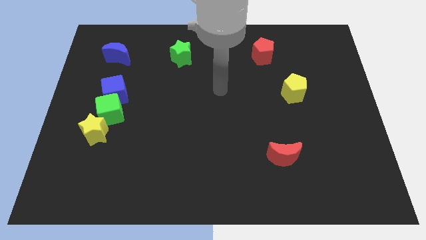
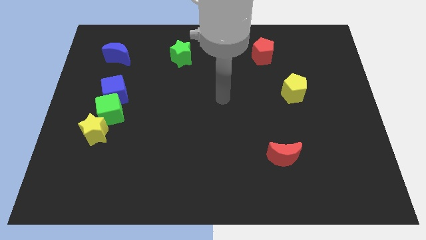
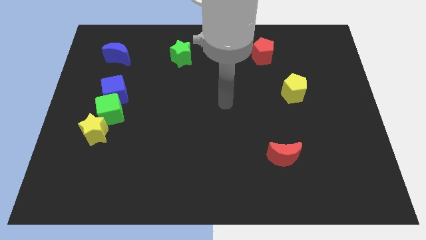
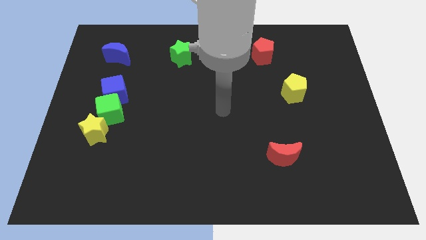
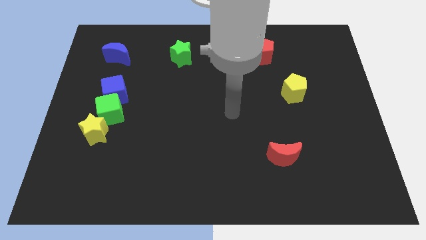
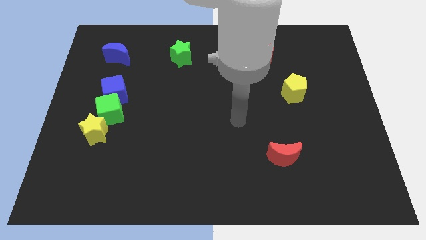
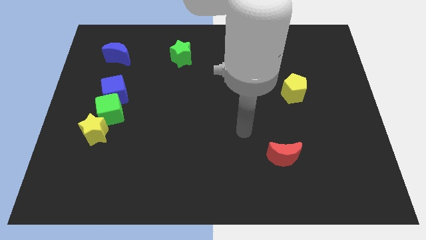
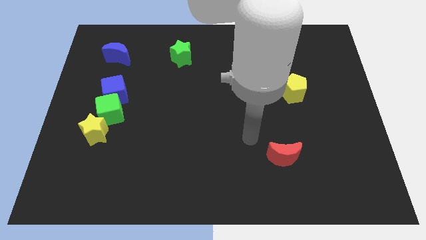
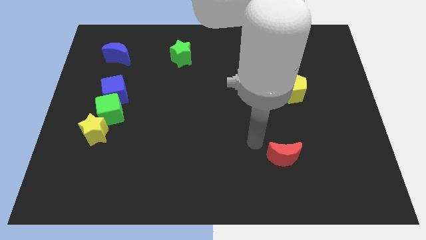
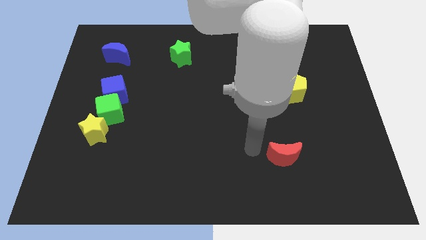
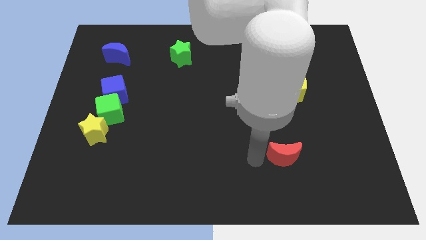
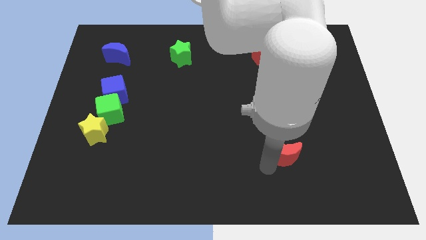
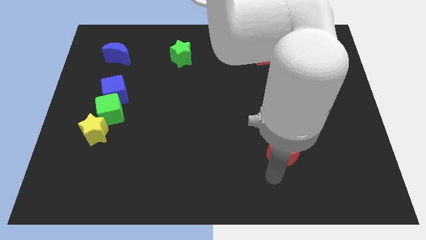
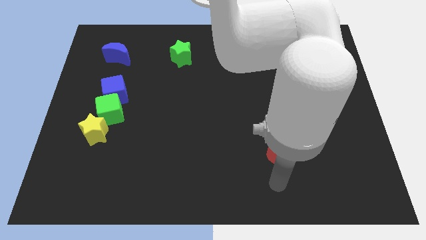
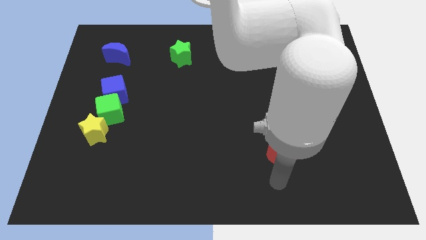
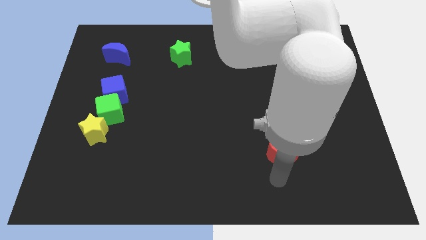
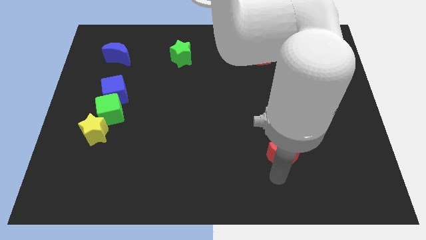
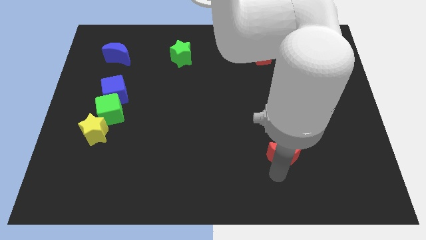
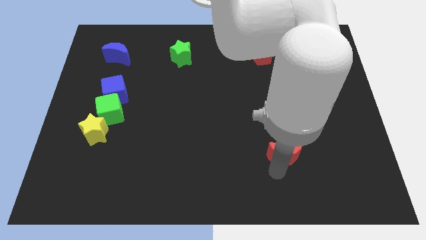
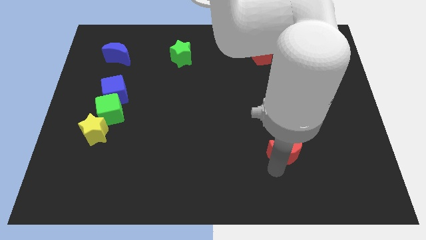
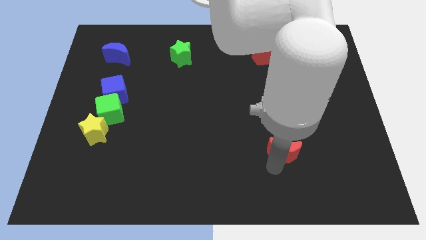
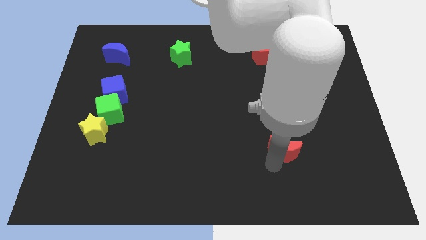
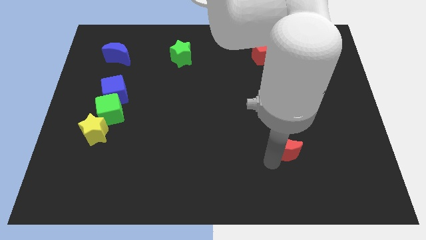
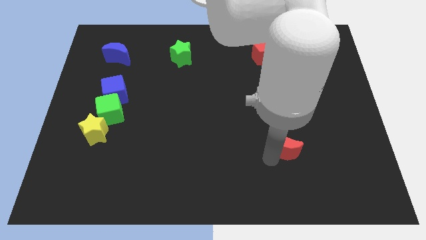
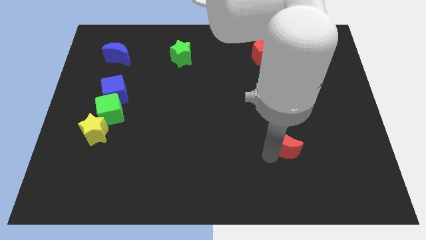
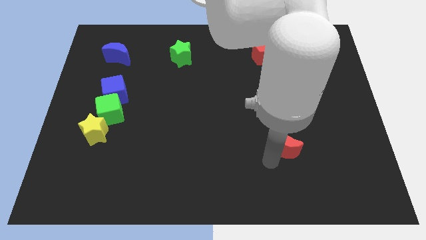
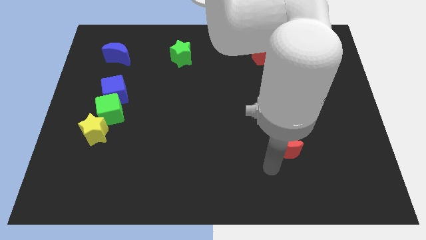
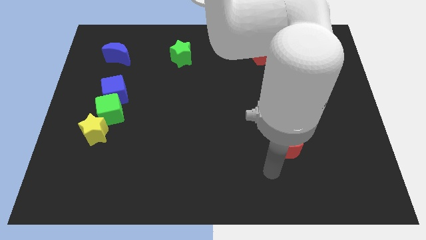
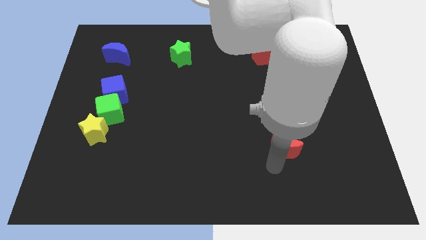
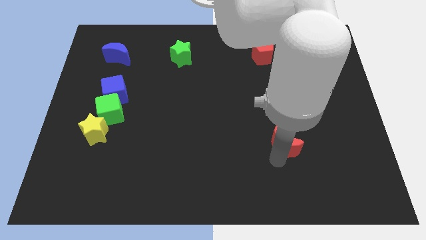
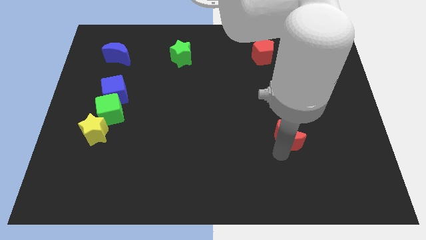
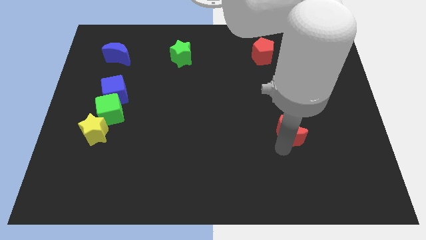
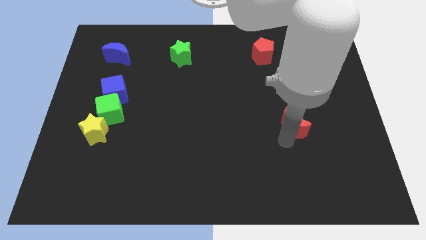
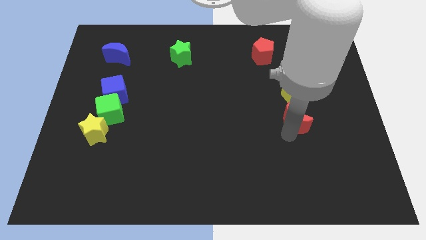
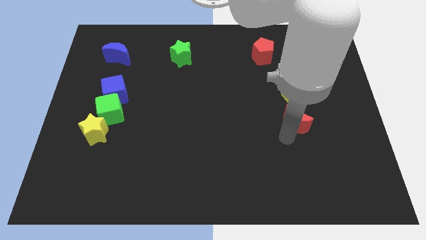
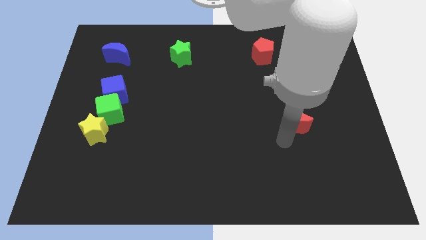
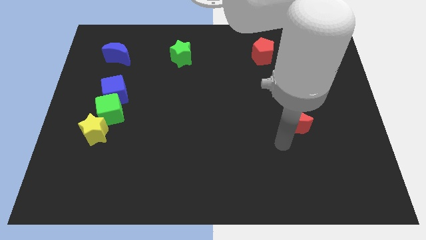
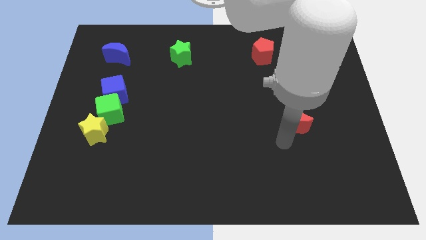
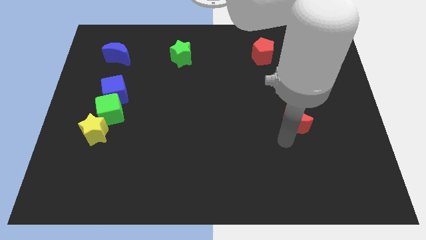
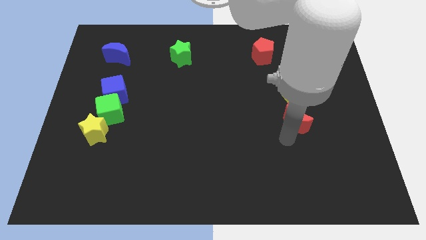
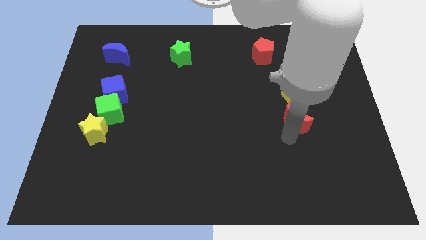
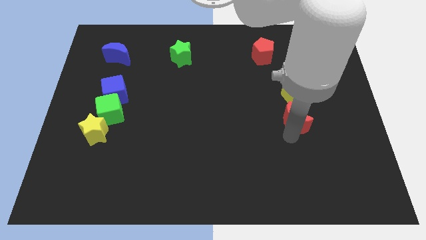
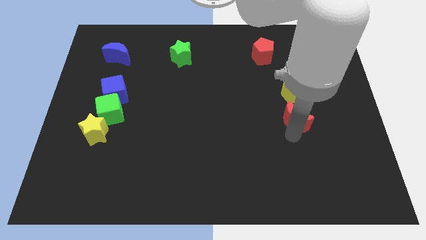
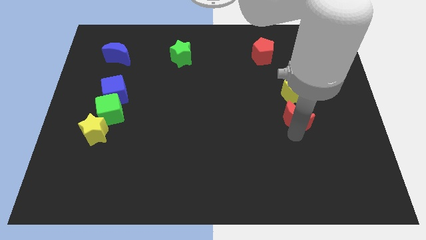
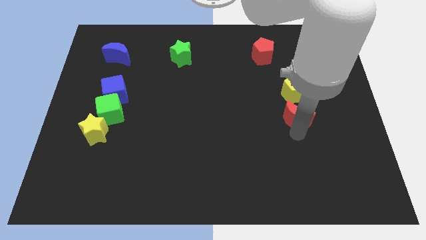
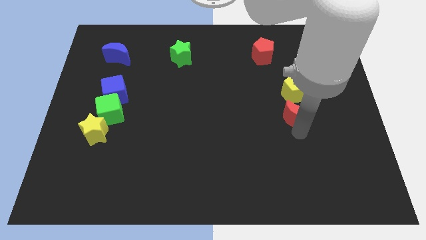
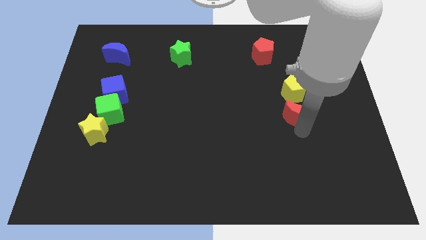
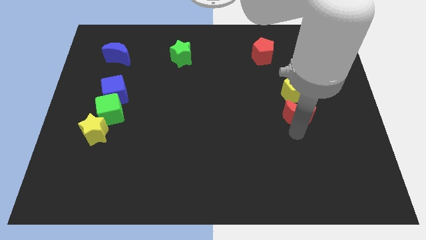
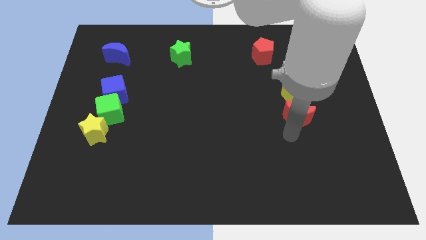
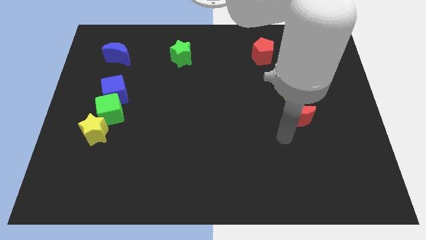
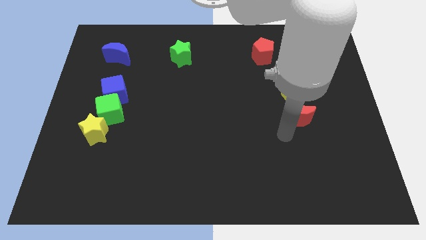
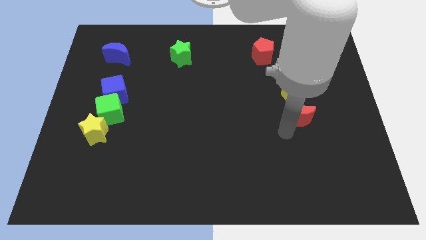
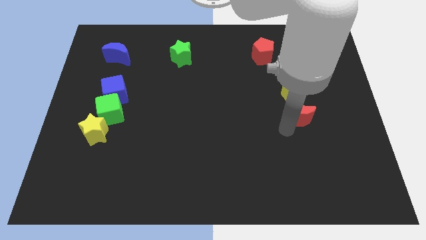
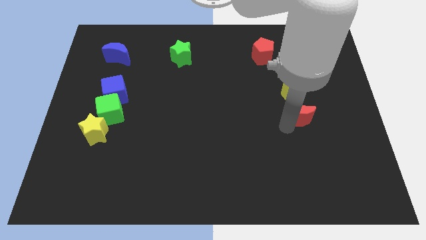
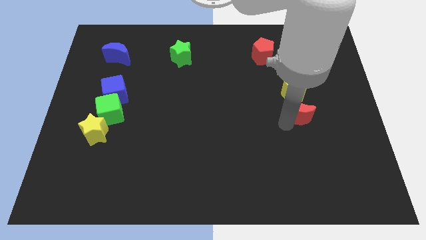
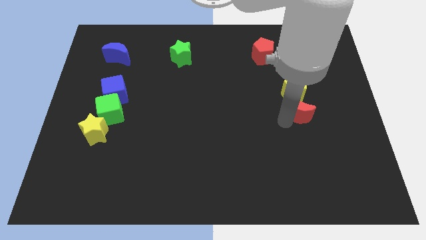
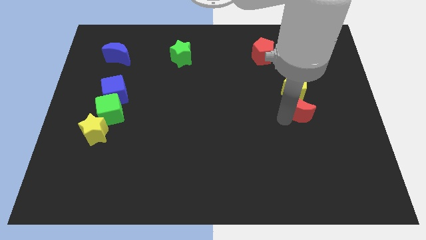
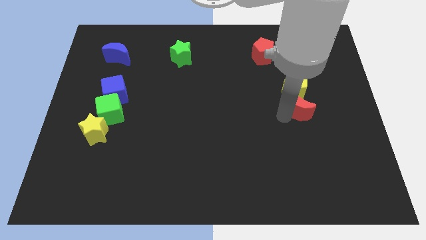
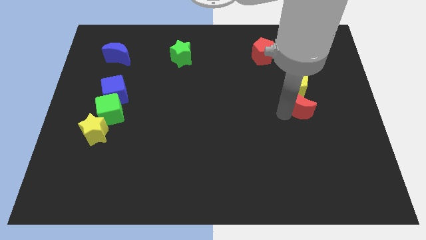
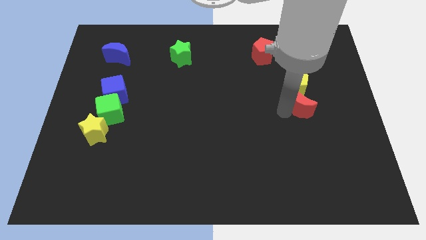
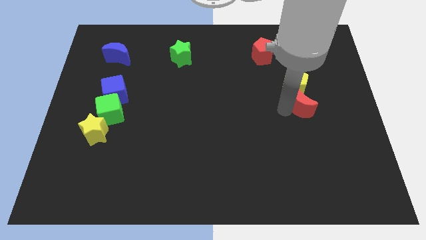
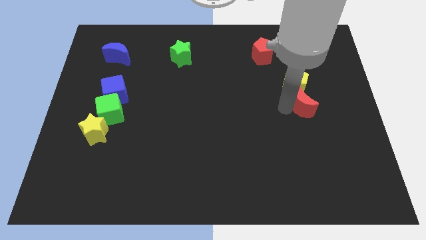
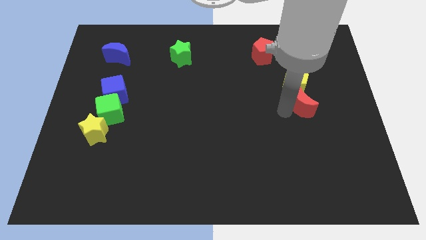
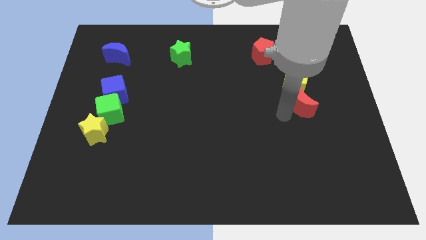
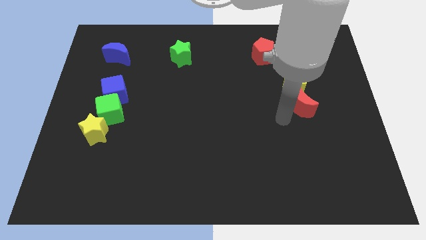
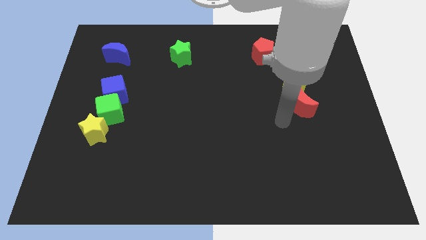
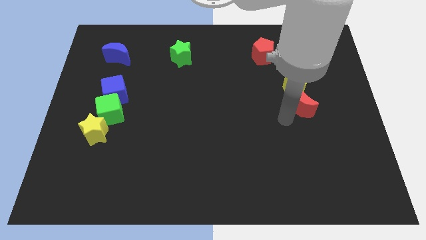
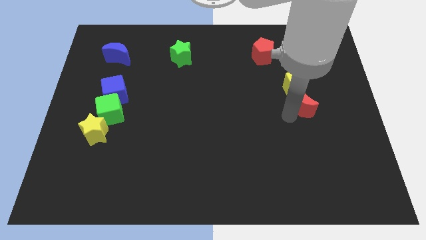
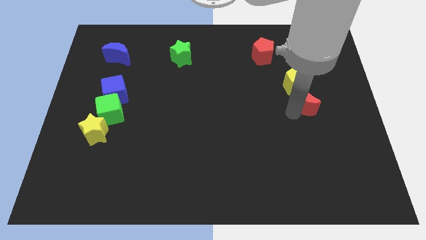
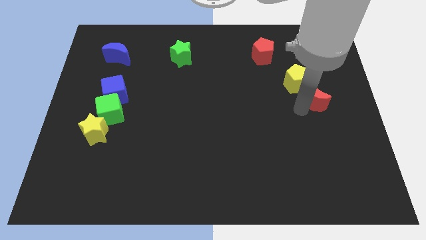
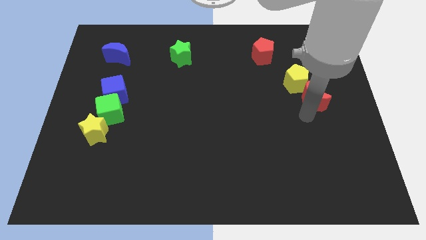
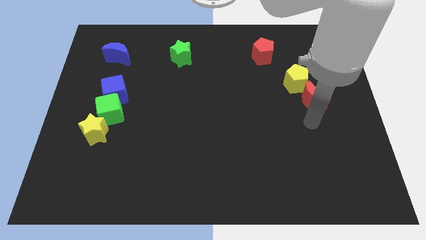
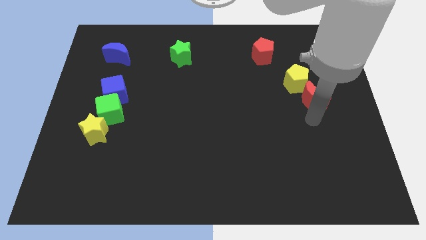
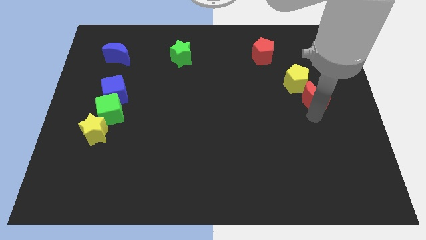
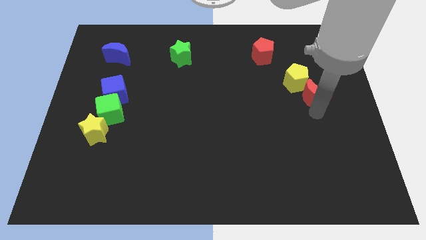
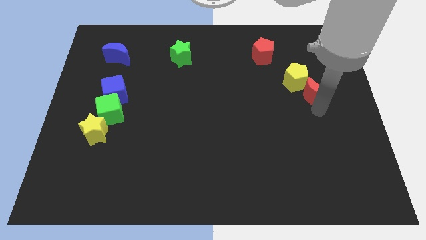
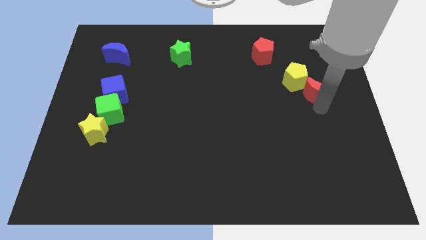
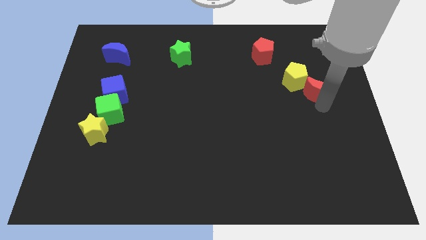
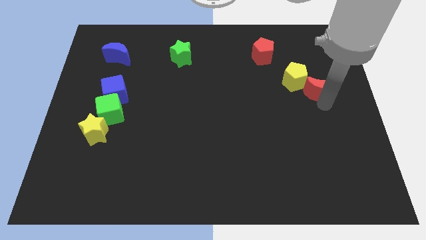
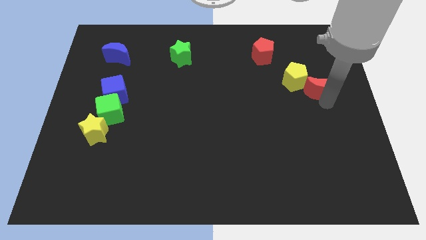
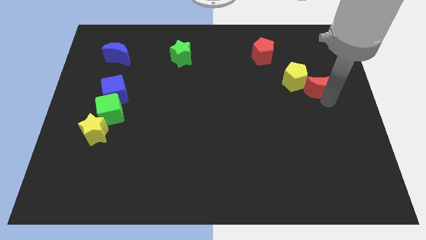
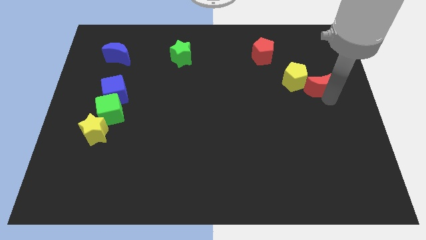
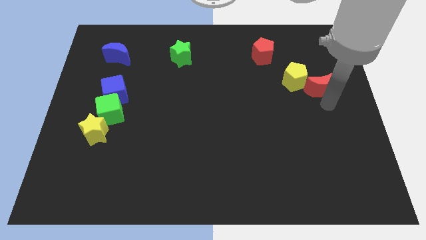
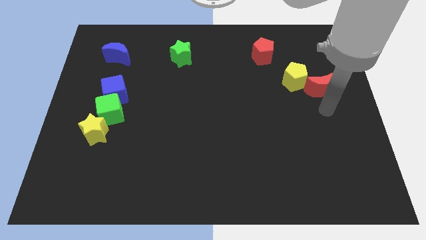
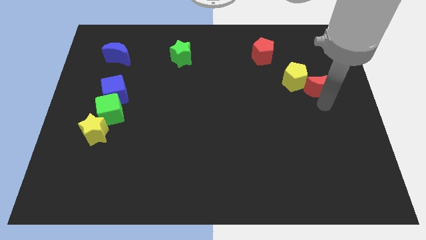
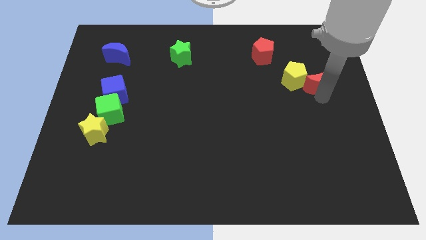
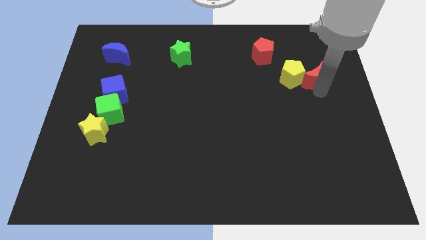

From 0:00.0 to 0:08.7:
slide the red moon to the top right side of the yellow pentagon
